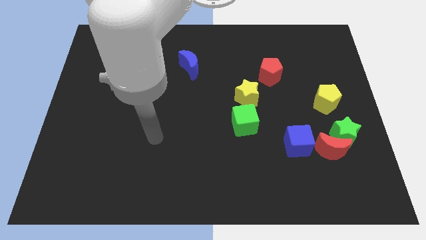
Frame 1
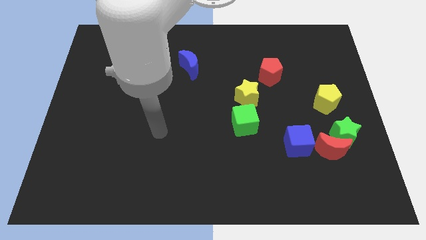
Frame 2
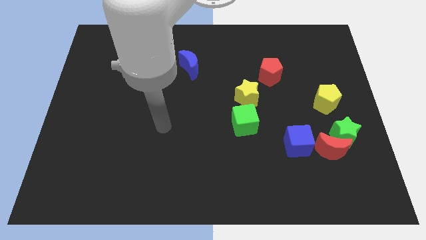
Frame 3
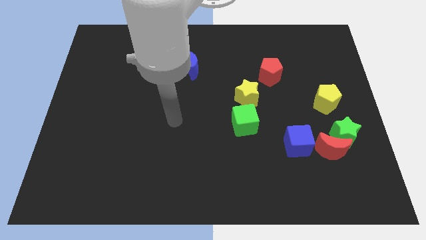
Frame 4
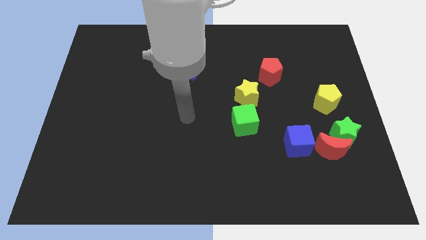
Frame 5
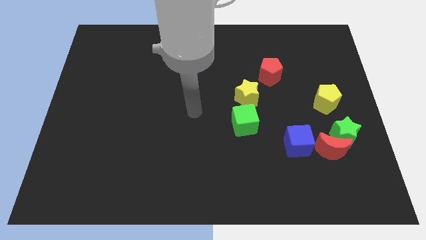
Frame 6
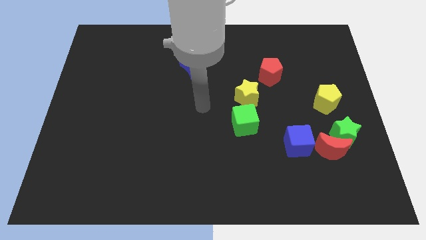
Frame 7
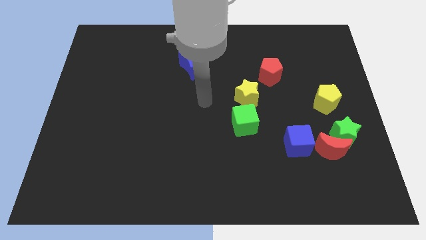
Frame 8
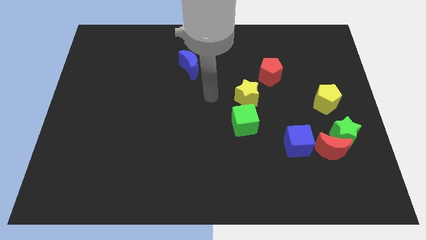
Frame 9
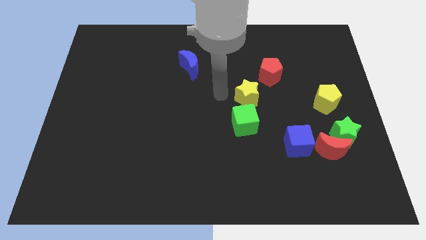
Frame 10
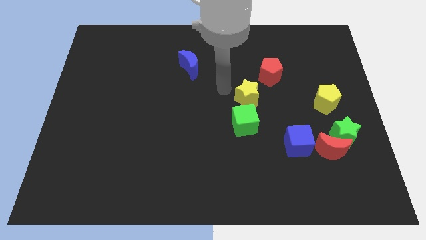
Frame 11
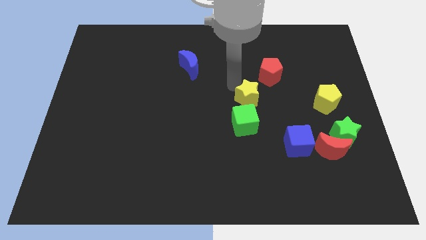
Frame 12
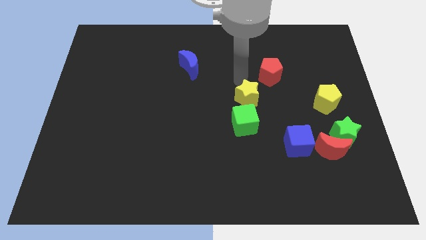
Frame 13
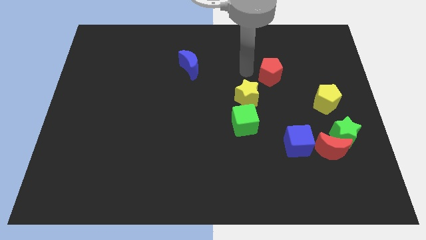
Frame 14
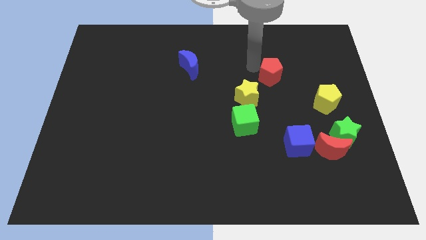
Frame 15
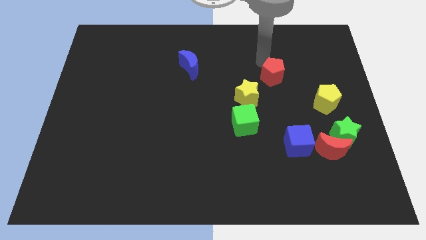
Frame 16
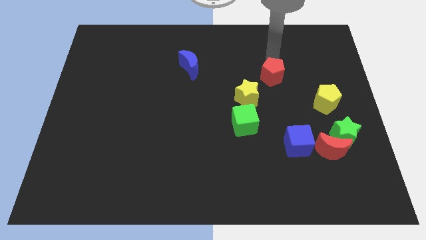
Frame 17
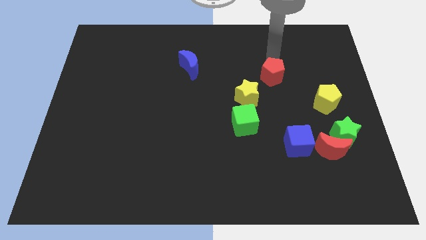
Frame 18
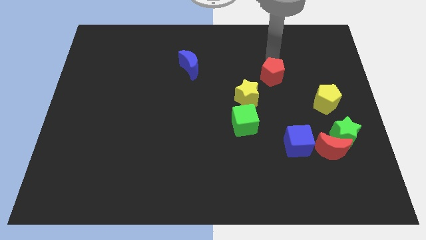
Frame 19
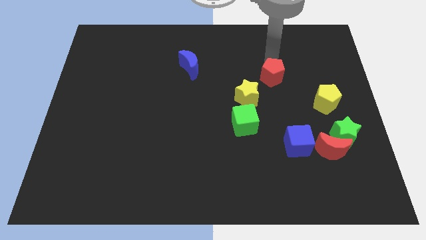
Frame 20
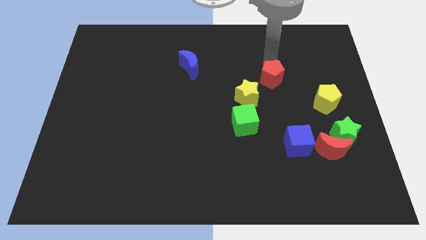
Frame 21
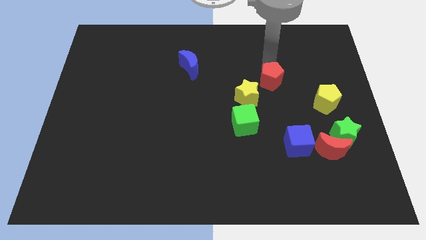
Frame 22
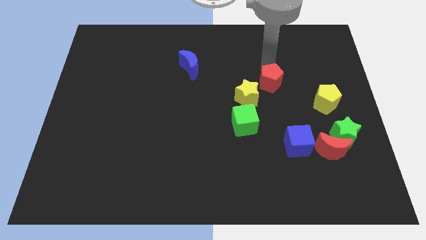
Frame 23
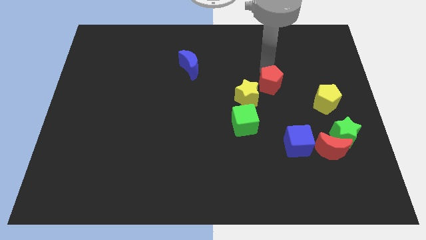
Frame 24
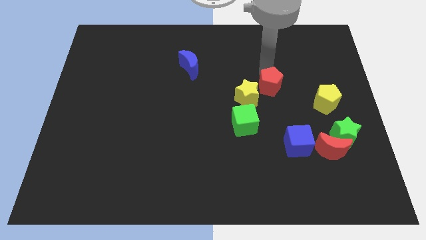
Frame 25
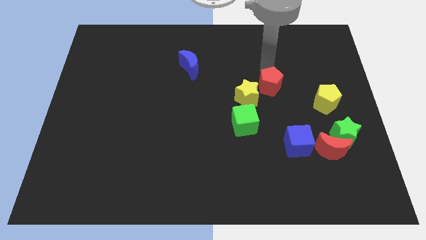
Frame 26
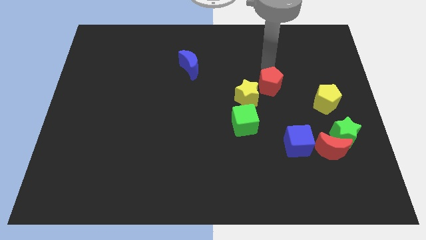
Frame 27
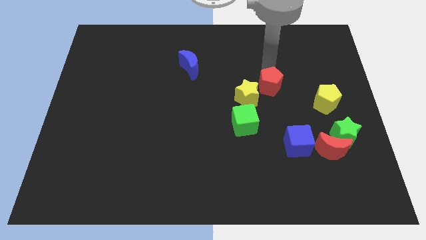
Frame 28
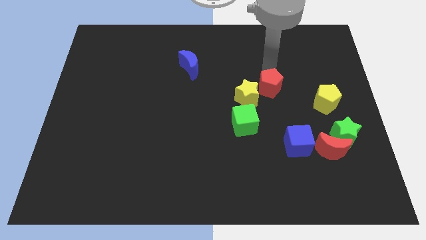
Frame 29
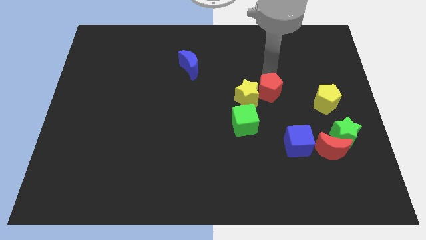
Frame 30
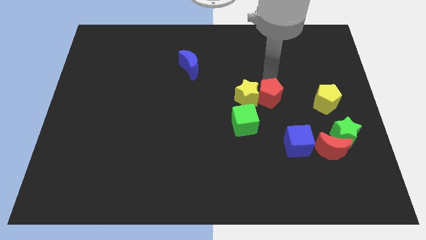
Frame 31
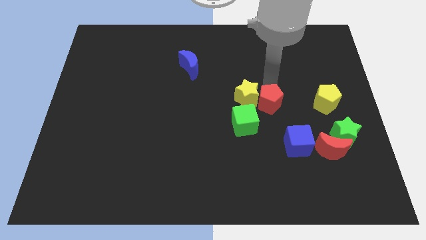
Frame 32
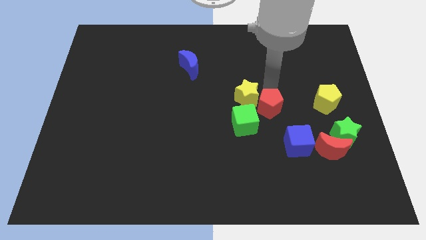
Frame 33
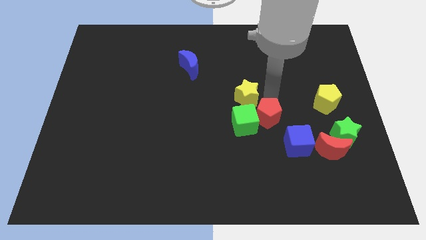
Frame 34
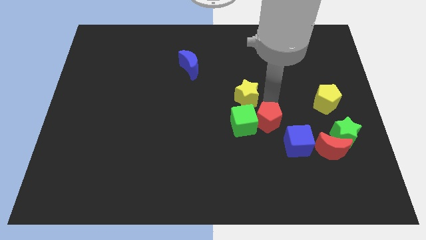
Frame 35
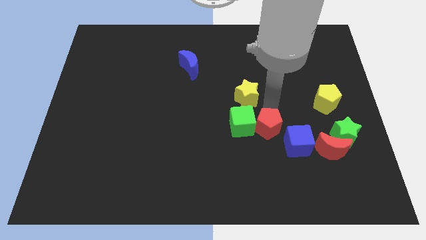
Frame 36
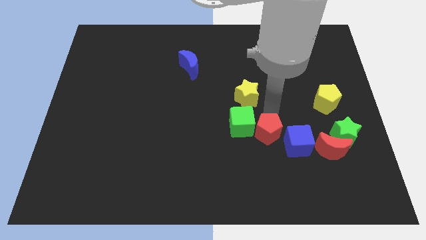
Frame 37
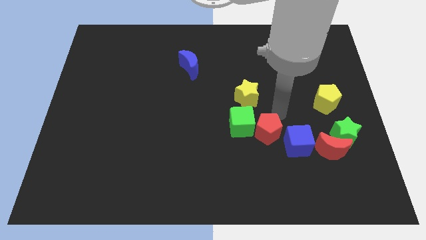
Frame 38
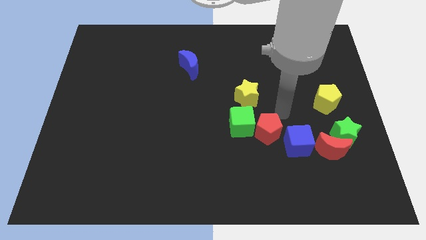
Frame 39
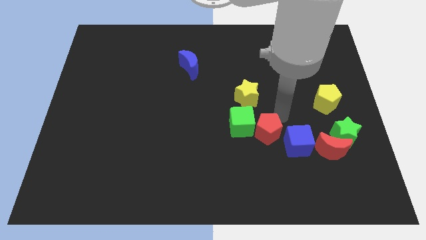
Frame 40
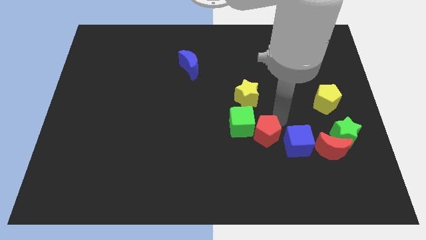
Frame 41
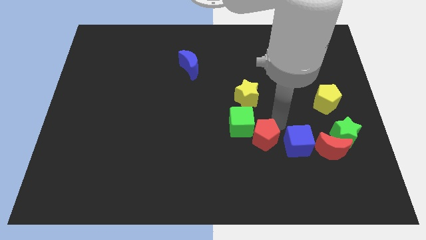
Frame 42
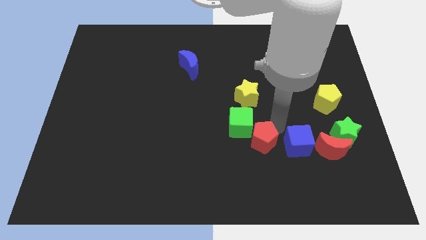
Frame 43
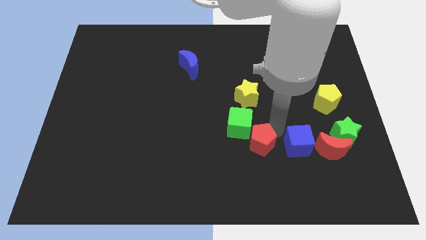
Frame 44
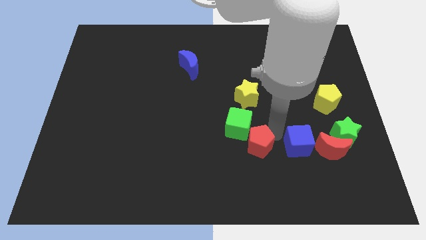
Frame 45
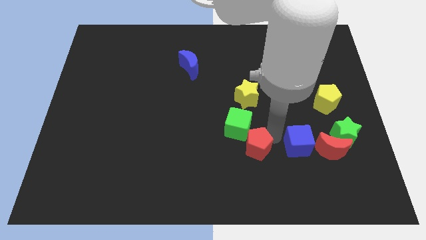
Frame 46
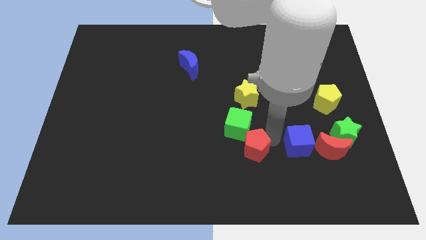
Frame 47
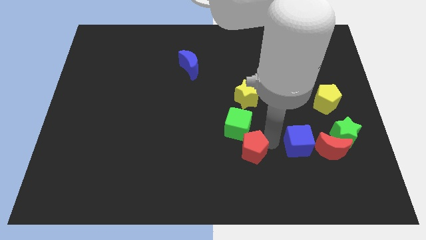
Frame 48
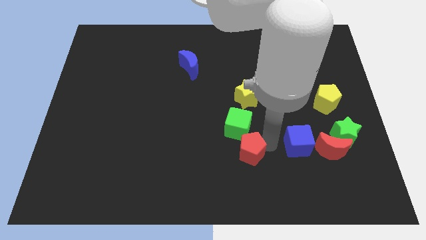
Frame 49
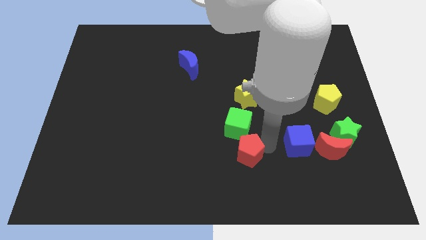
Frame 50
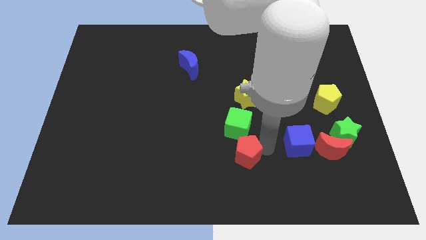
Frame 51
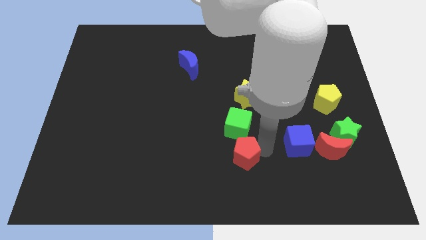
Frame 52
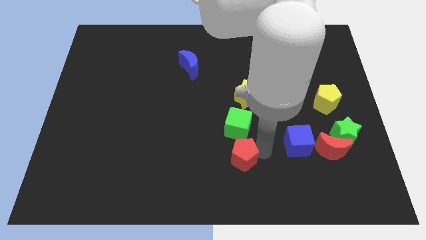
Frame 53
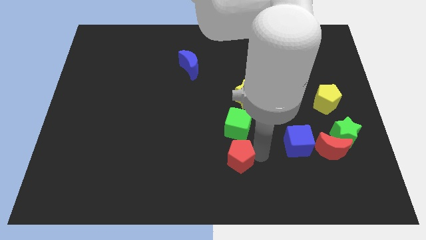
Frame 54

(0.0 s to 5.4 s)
move the red pentagon to the bottom
